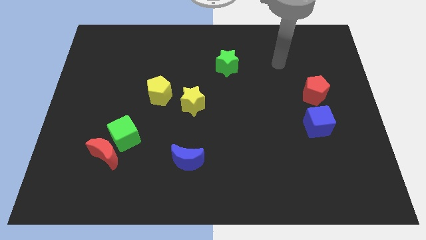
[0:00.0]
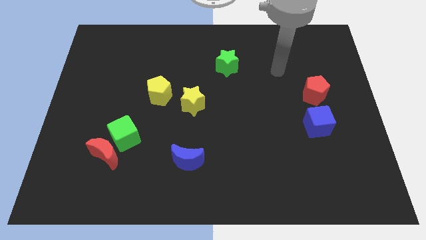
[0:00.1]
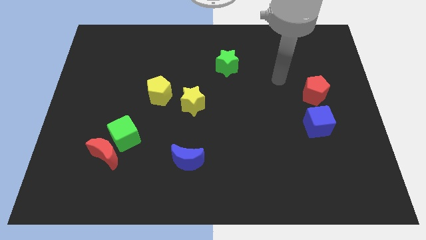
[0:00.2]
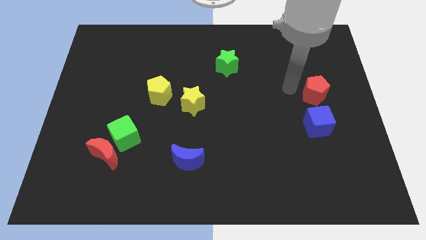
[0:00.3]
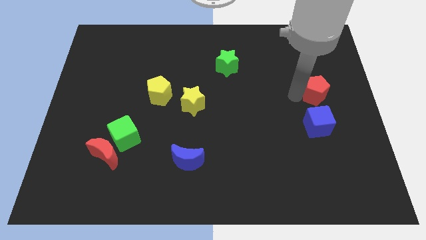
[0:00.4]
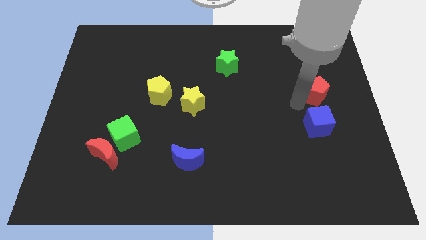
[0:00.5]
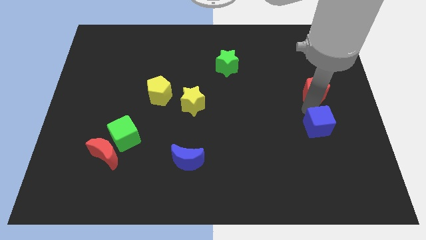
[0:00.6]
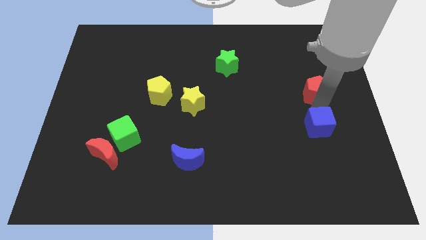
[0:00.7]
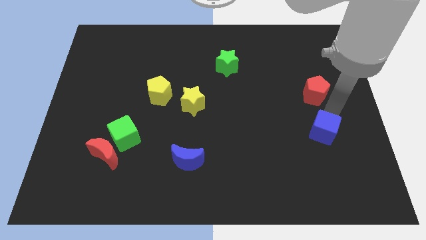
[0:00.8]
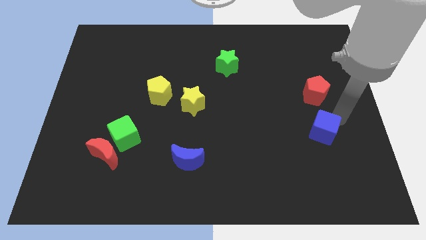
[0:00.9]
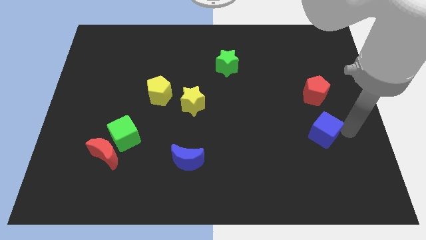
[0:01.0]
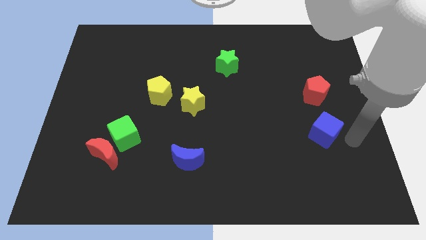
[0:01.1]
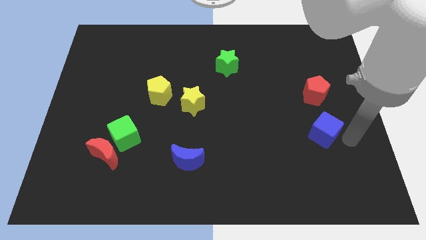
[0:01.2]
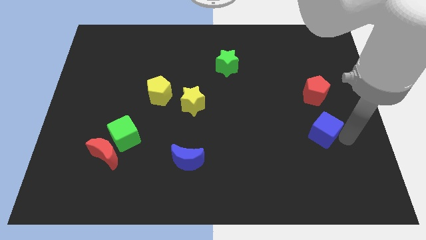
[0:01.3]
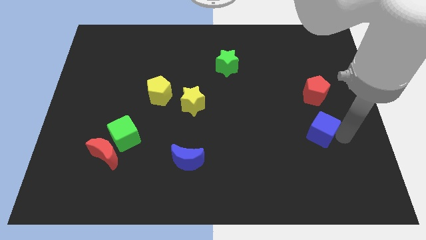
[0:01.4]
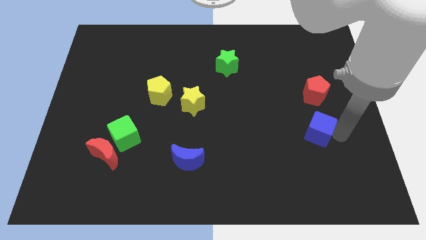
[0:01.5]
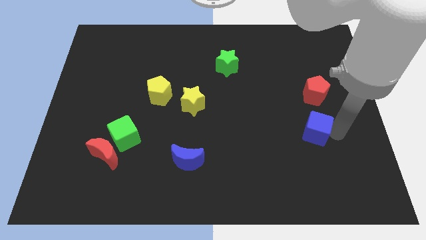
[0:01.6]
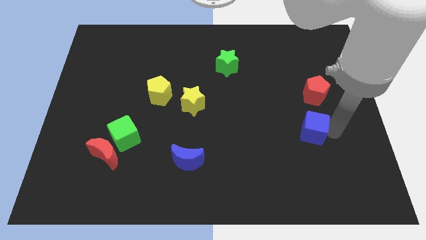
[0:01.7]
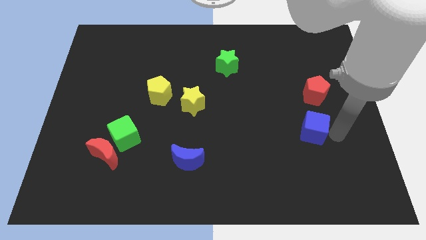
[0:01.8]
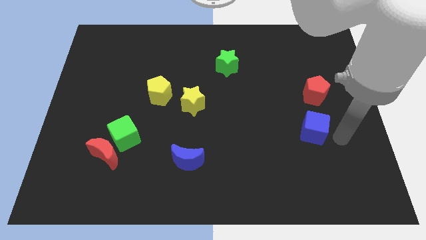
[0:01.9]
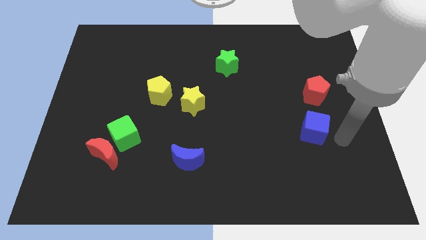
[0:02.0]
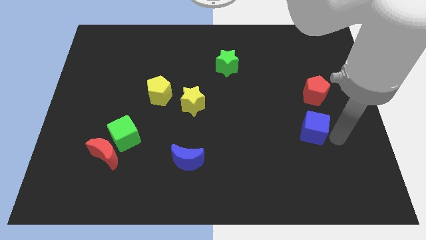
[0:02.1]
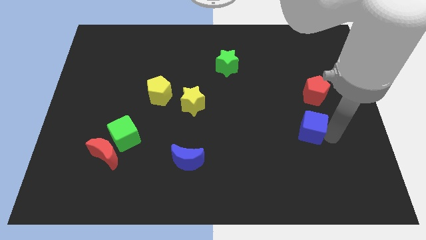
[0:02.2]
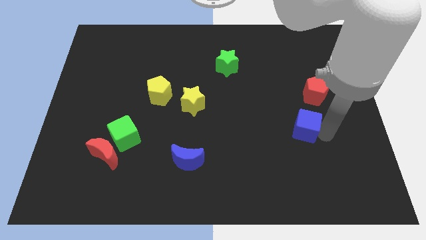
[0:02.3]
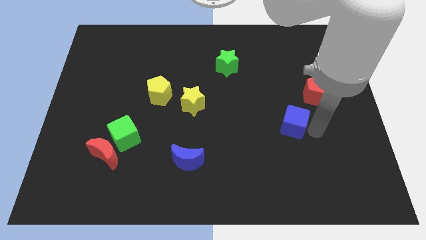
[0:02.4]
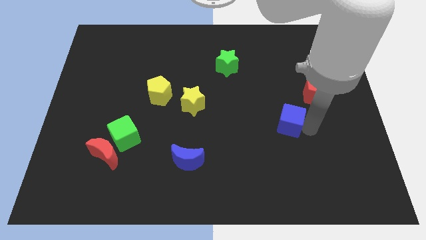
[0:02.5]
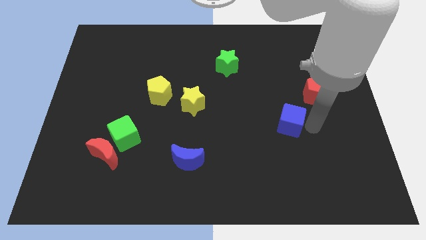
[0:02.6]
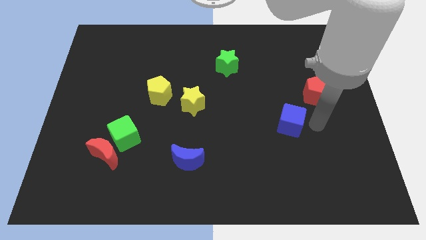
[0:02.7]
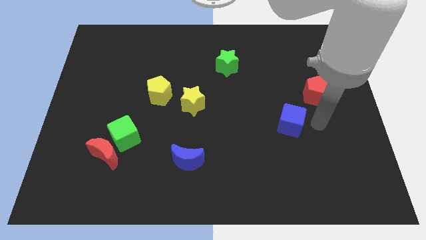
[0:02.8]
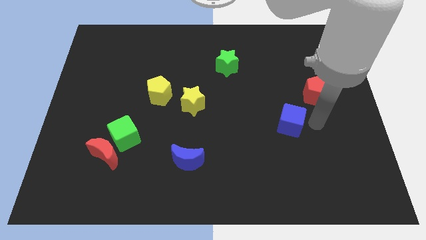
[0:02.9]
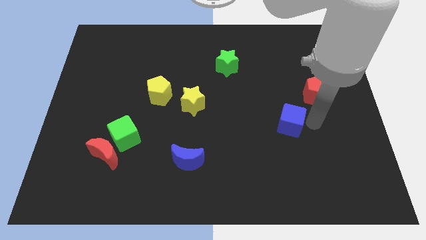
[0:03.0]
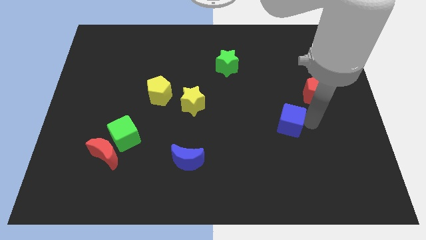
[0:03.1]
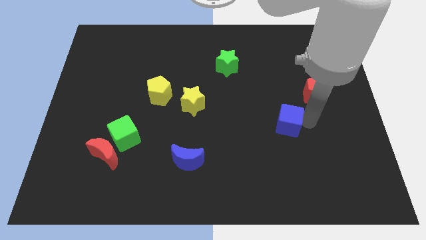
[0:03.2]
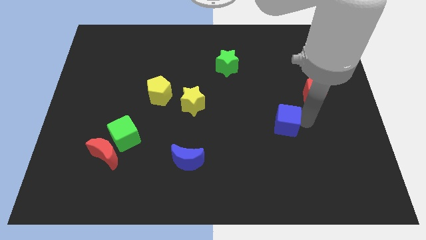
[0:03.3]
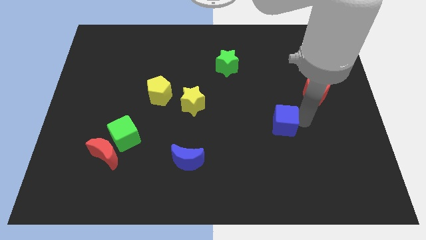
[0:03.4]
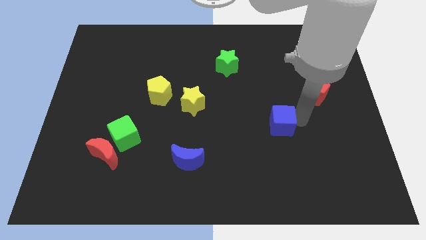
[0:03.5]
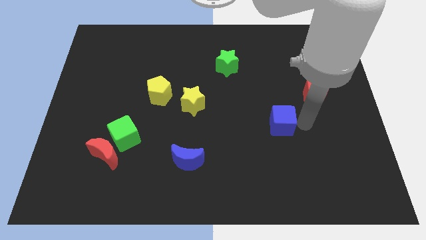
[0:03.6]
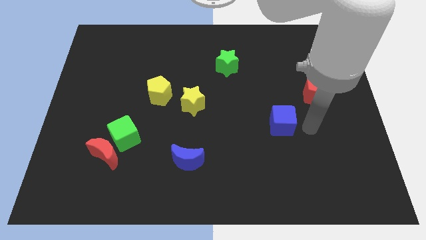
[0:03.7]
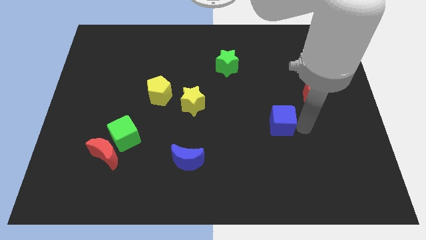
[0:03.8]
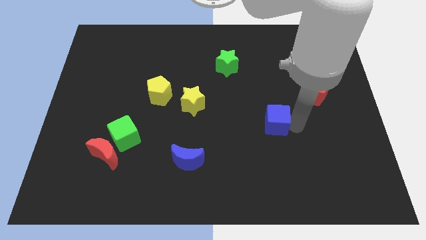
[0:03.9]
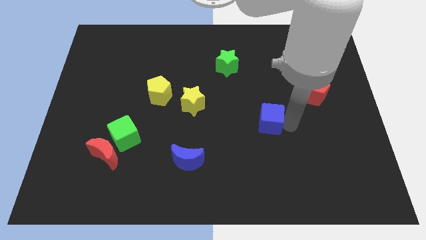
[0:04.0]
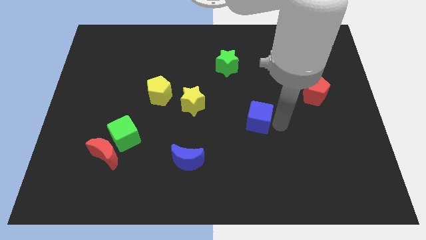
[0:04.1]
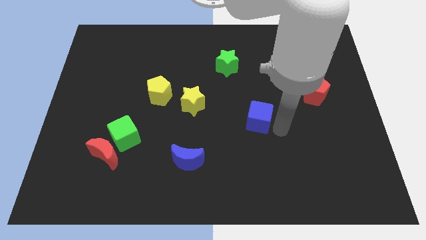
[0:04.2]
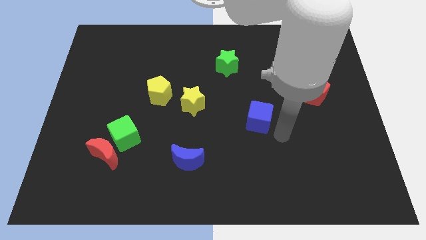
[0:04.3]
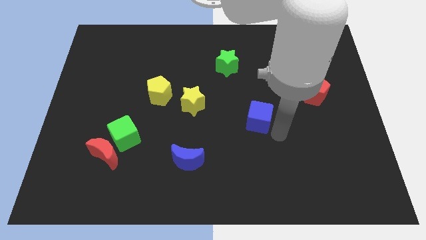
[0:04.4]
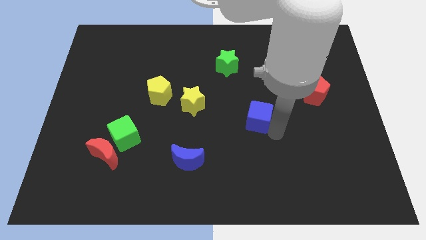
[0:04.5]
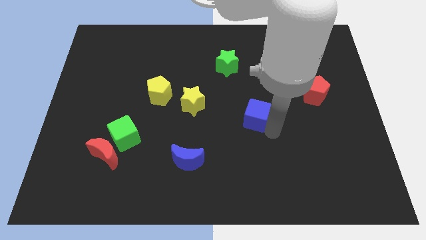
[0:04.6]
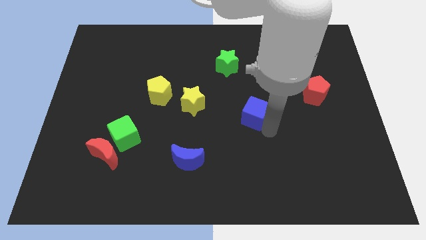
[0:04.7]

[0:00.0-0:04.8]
move the blue cube just right of the yellow star

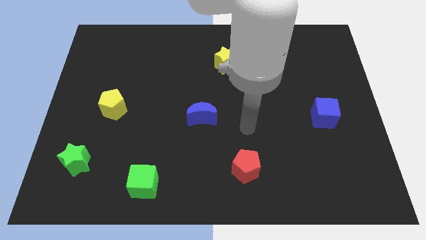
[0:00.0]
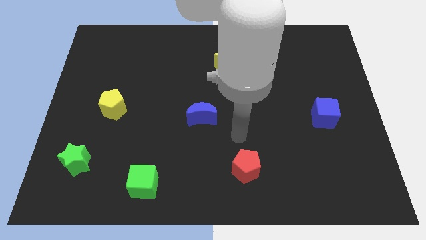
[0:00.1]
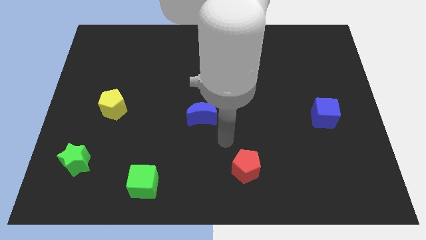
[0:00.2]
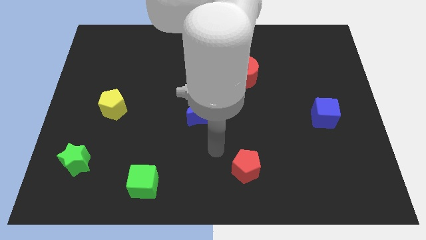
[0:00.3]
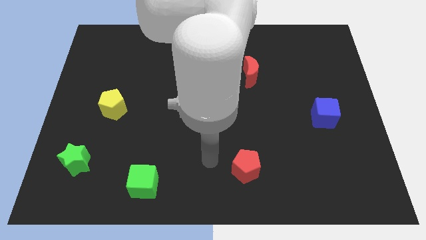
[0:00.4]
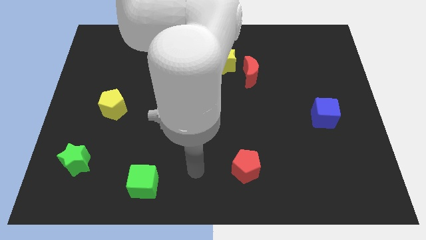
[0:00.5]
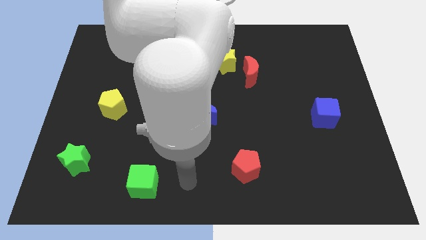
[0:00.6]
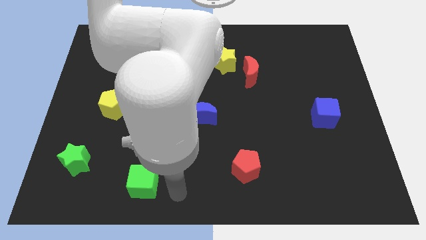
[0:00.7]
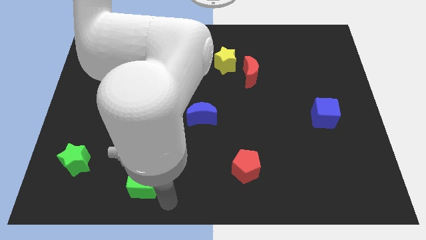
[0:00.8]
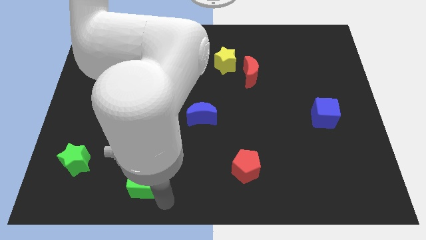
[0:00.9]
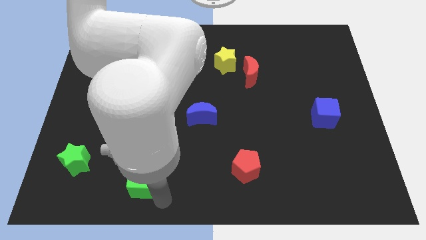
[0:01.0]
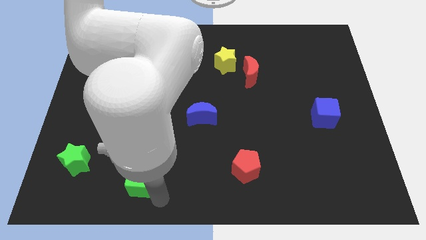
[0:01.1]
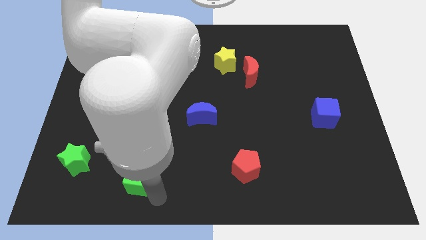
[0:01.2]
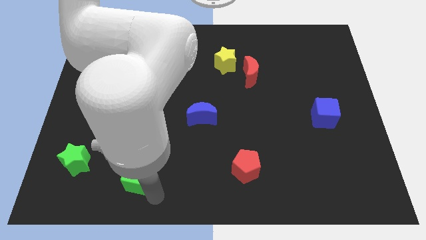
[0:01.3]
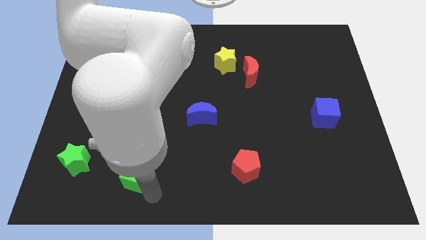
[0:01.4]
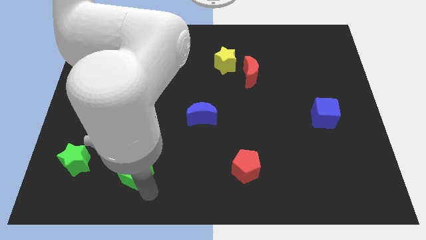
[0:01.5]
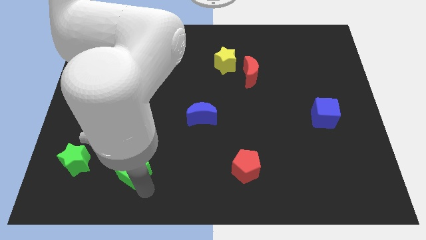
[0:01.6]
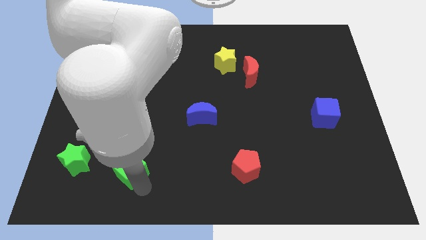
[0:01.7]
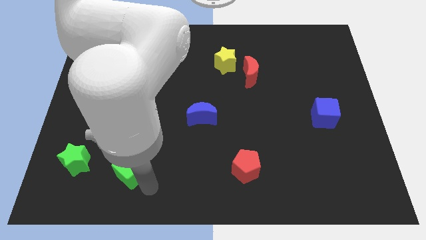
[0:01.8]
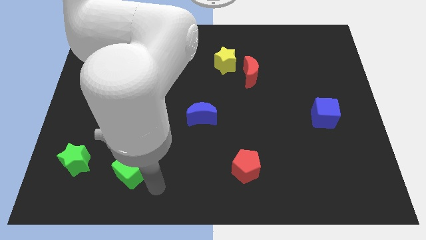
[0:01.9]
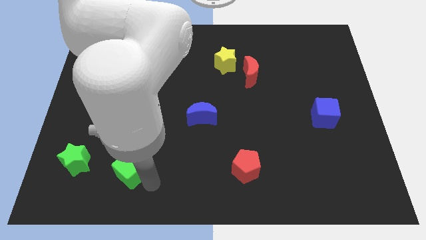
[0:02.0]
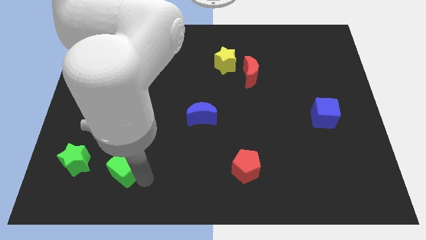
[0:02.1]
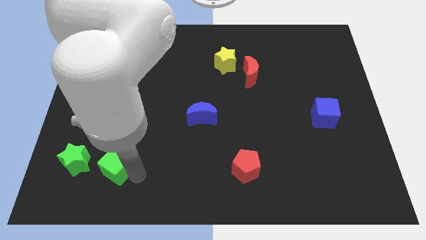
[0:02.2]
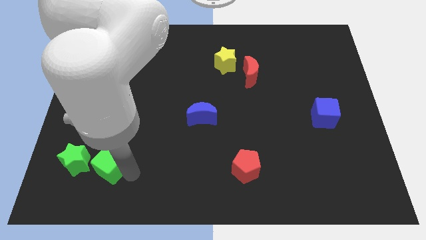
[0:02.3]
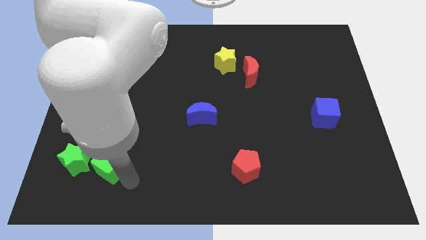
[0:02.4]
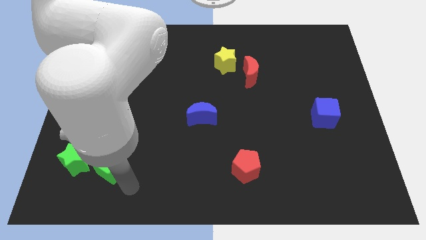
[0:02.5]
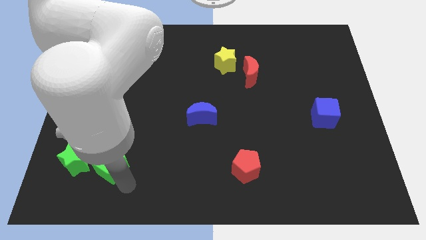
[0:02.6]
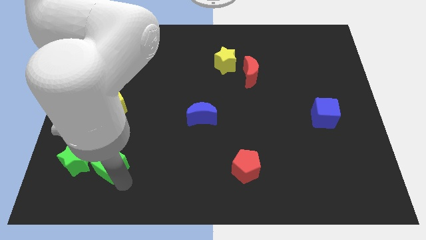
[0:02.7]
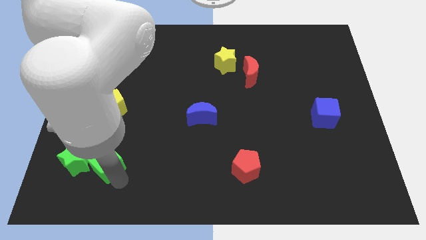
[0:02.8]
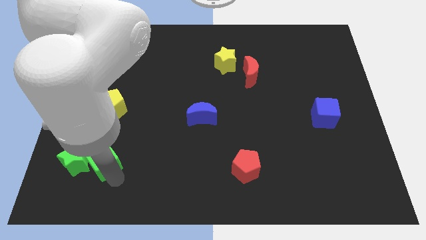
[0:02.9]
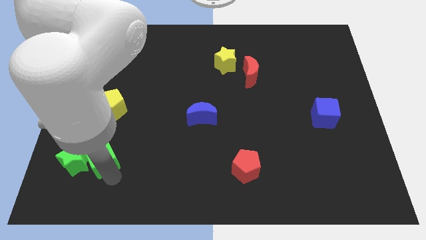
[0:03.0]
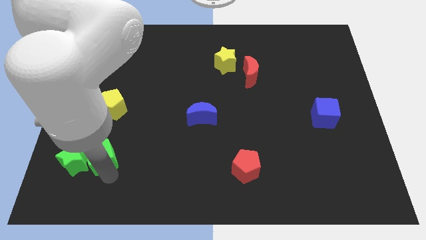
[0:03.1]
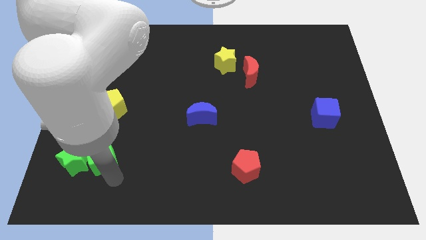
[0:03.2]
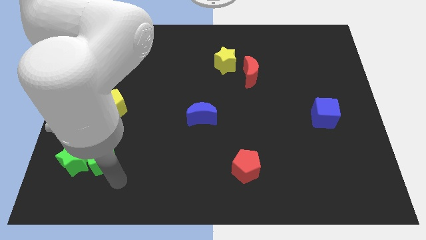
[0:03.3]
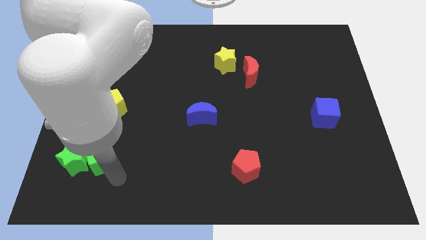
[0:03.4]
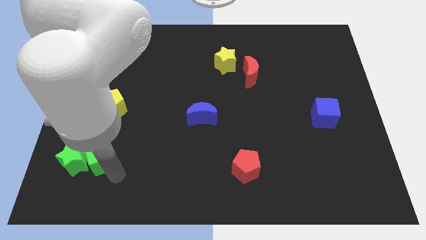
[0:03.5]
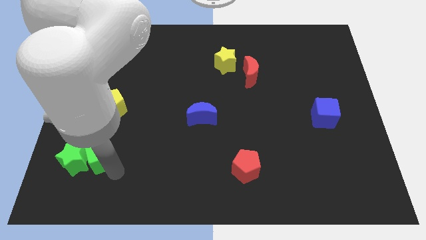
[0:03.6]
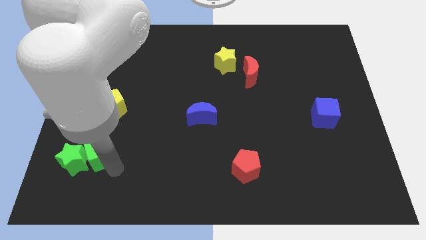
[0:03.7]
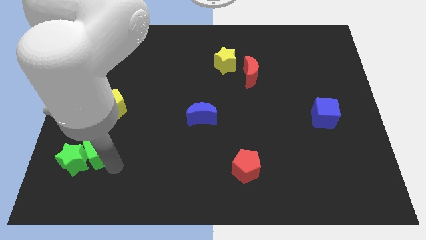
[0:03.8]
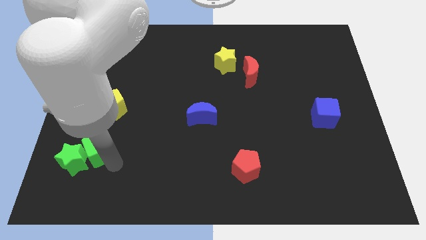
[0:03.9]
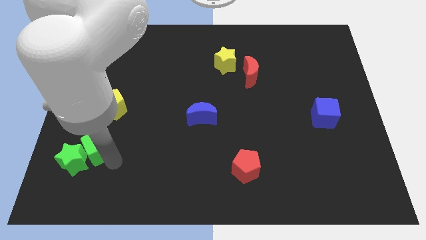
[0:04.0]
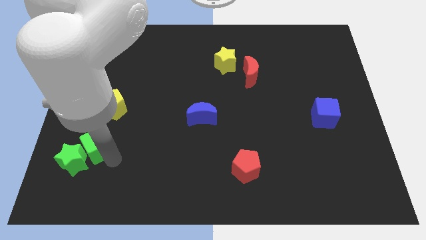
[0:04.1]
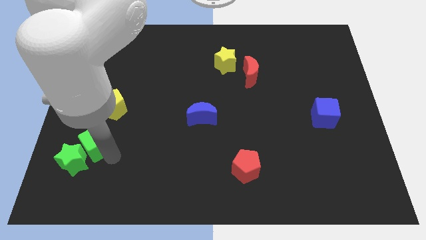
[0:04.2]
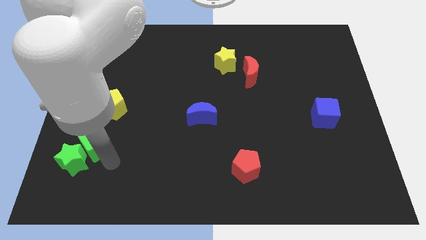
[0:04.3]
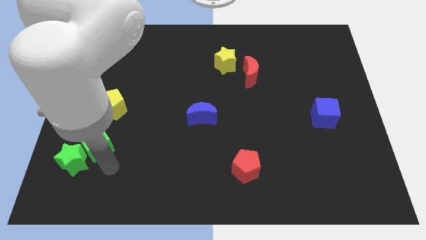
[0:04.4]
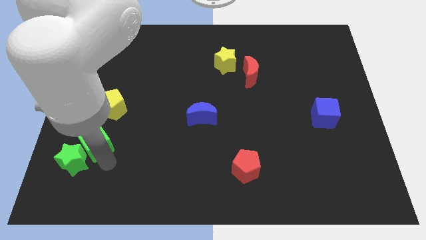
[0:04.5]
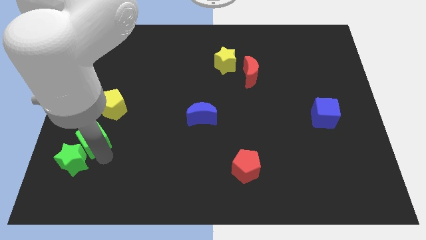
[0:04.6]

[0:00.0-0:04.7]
slide the green cube to the bottom left of the yellow pentagon
